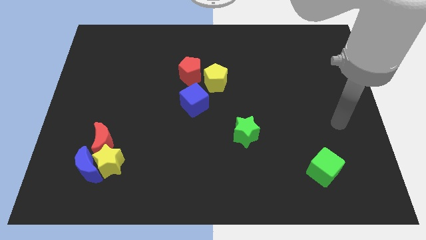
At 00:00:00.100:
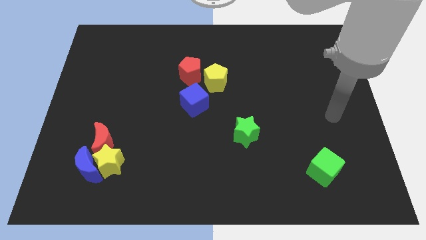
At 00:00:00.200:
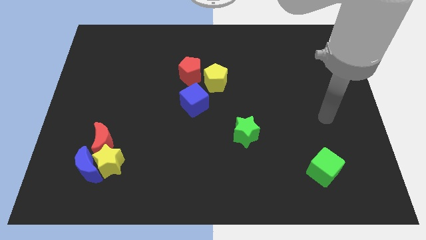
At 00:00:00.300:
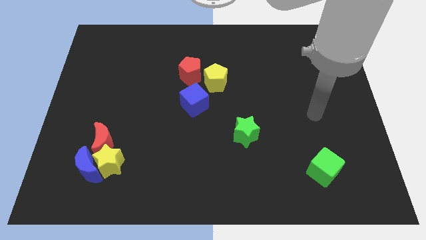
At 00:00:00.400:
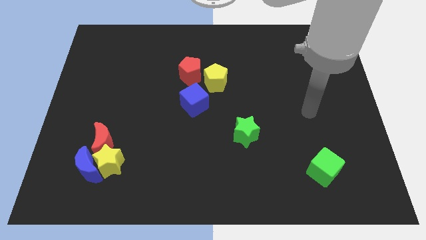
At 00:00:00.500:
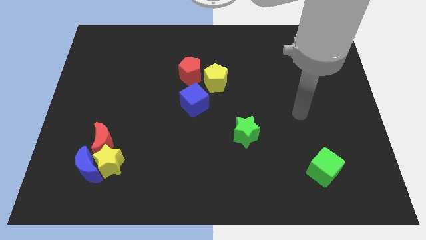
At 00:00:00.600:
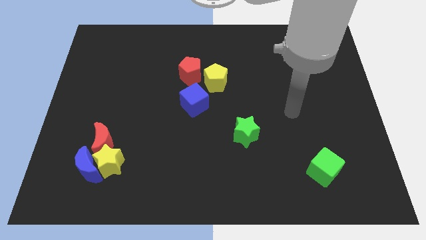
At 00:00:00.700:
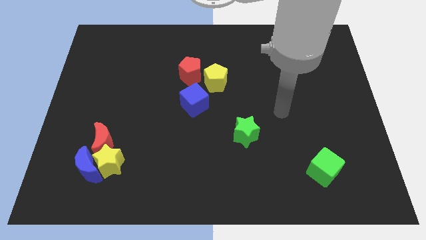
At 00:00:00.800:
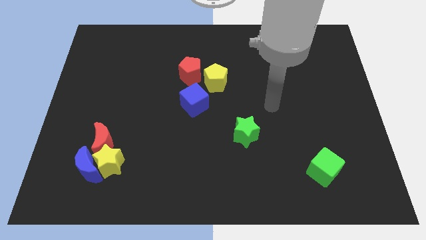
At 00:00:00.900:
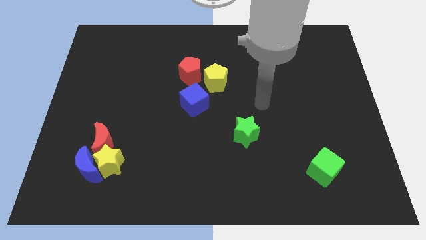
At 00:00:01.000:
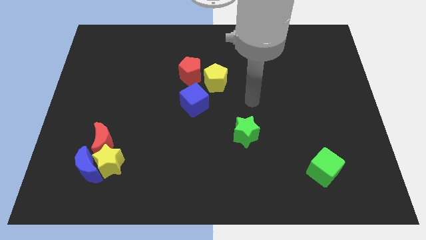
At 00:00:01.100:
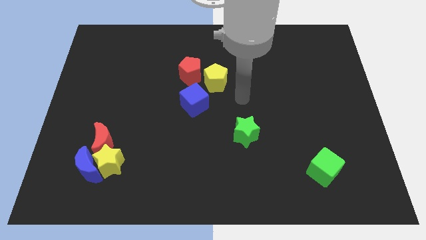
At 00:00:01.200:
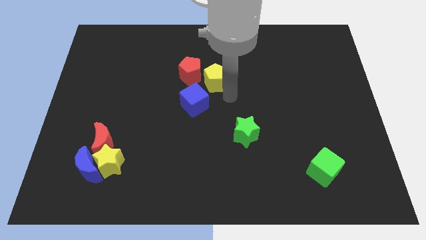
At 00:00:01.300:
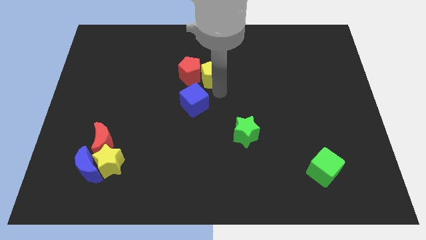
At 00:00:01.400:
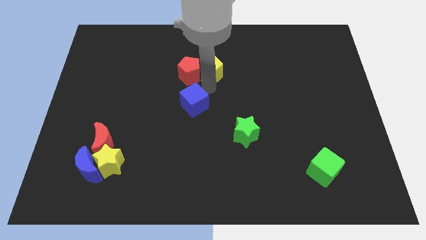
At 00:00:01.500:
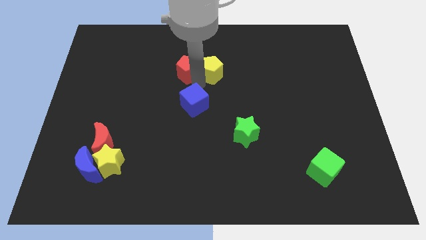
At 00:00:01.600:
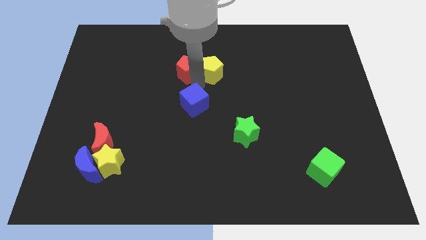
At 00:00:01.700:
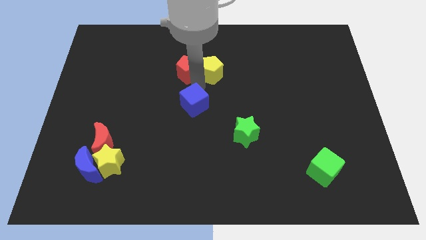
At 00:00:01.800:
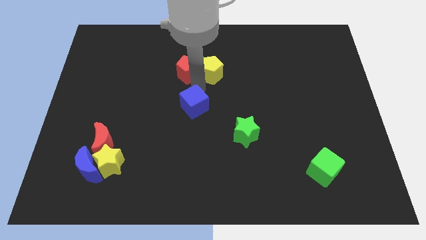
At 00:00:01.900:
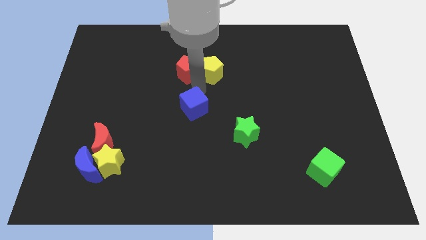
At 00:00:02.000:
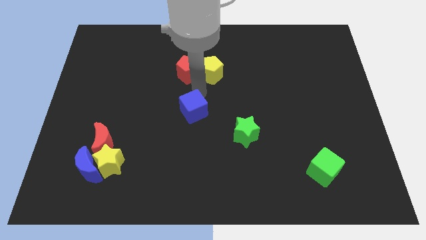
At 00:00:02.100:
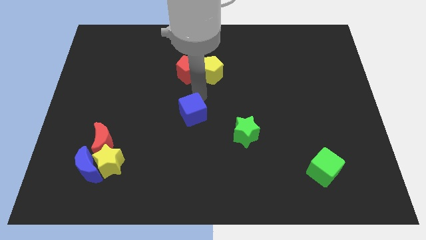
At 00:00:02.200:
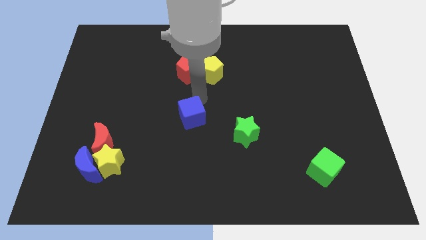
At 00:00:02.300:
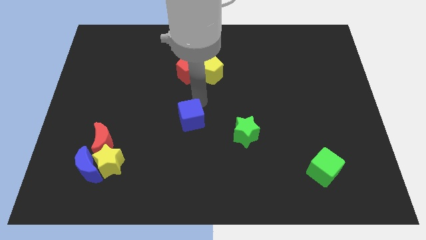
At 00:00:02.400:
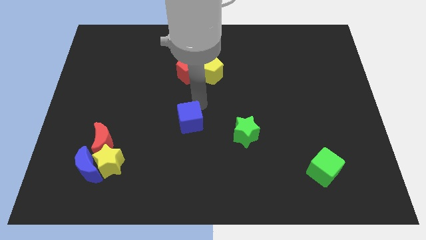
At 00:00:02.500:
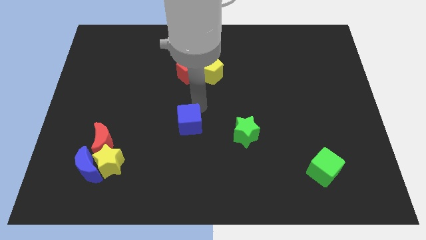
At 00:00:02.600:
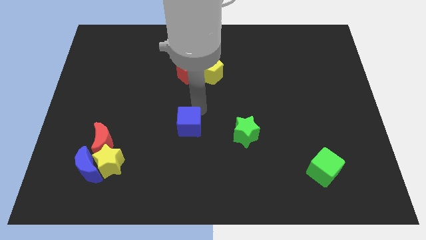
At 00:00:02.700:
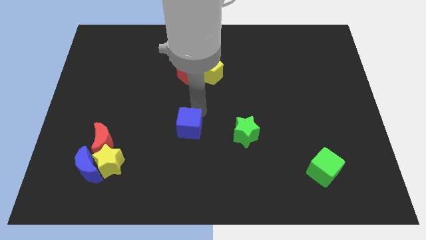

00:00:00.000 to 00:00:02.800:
push the blue cube downwards somewhat

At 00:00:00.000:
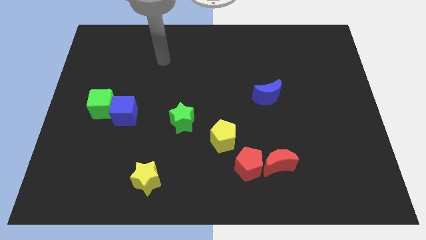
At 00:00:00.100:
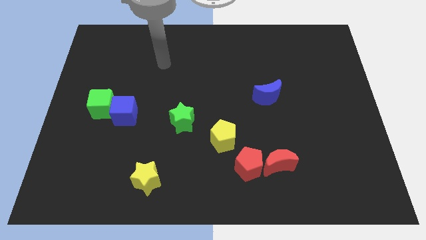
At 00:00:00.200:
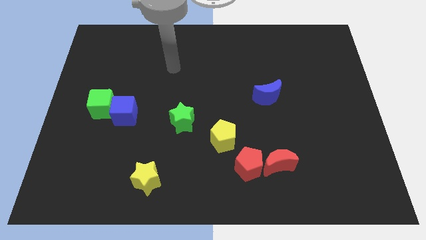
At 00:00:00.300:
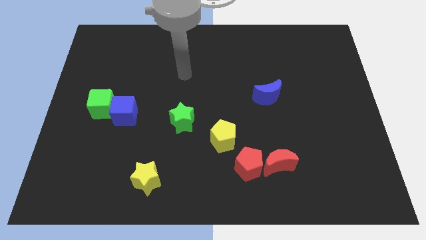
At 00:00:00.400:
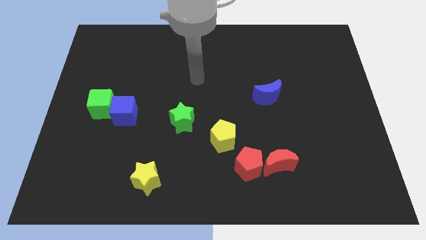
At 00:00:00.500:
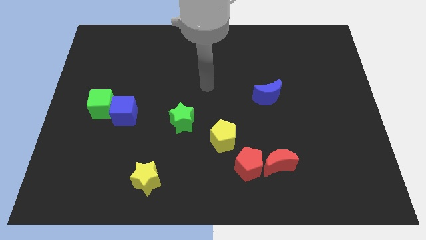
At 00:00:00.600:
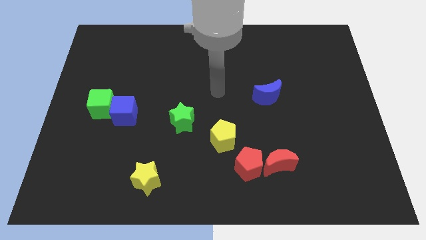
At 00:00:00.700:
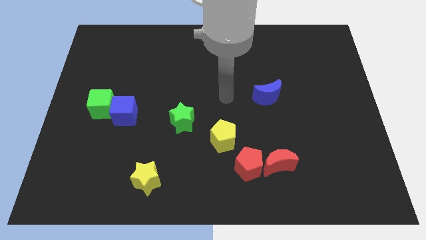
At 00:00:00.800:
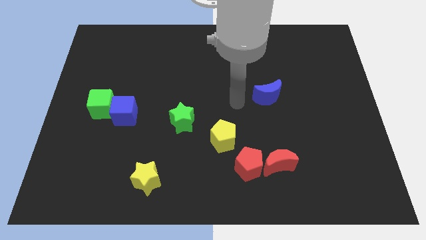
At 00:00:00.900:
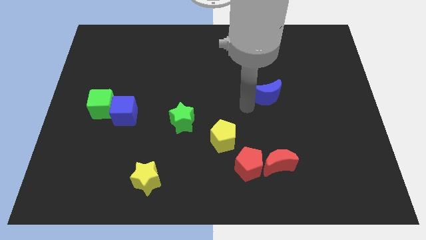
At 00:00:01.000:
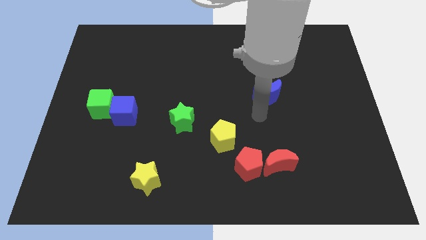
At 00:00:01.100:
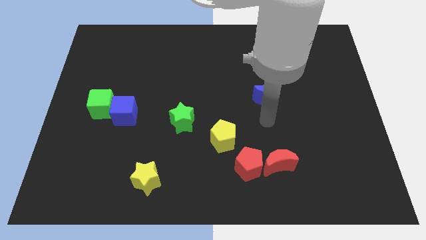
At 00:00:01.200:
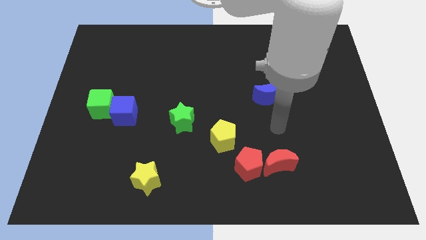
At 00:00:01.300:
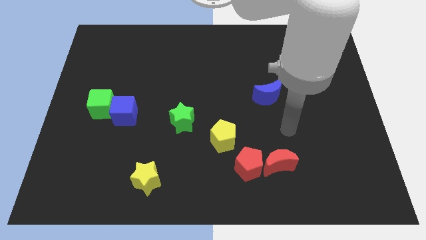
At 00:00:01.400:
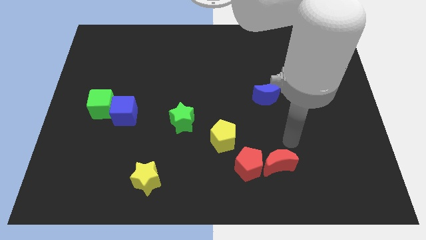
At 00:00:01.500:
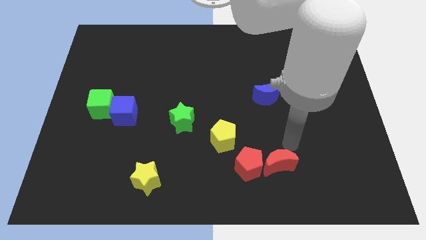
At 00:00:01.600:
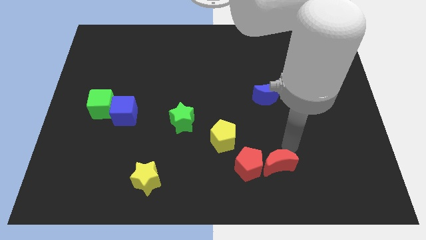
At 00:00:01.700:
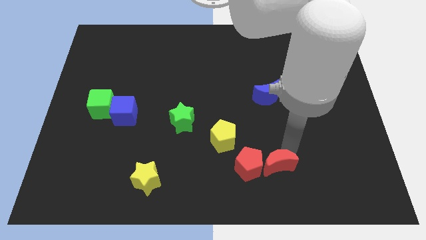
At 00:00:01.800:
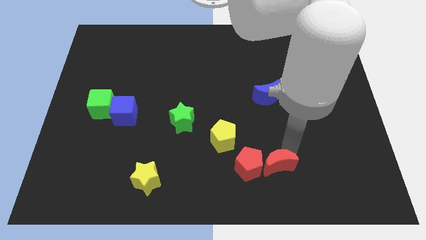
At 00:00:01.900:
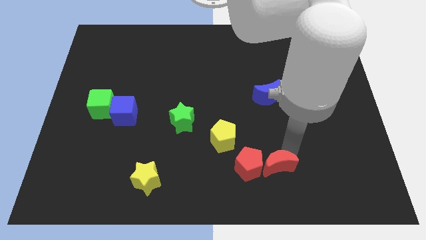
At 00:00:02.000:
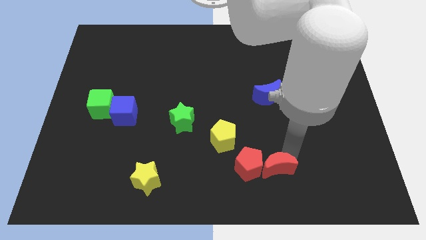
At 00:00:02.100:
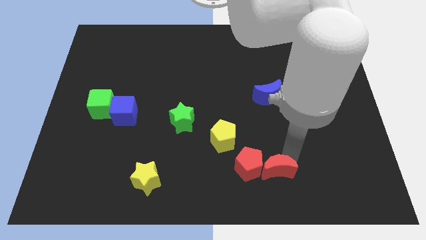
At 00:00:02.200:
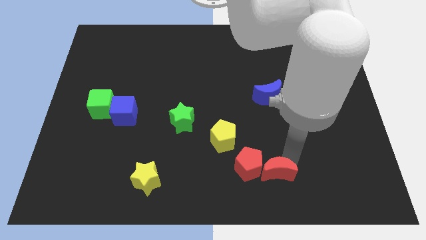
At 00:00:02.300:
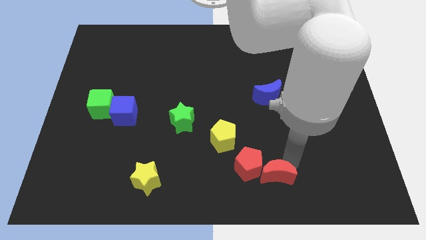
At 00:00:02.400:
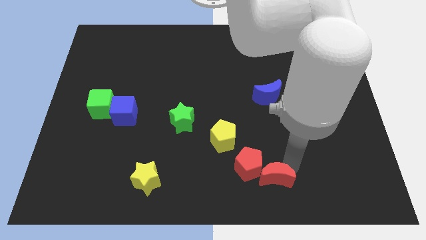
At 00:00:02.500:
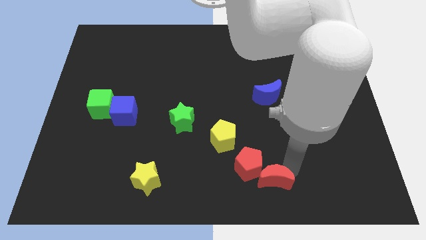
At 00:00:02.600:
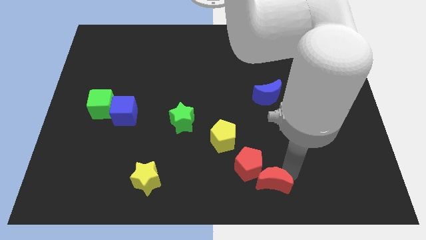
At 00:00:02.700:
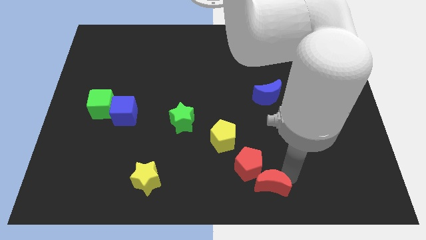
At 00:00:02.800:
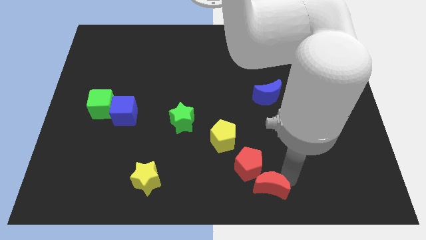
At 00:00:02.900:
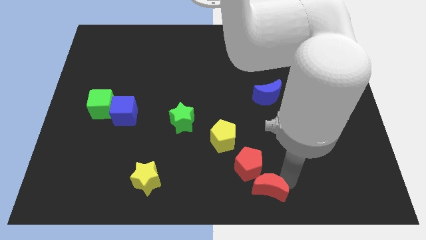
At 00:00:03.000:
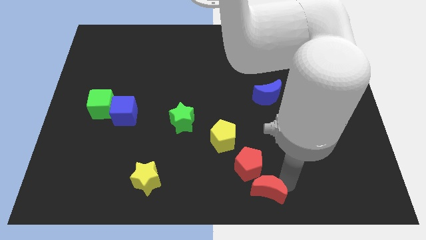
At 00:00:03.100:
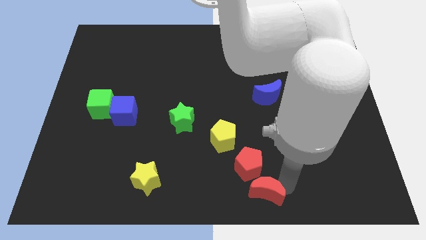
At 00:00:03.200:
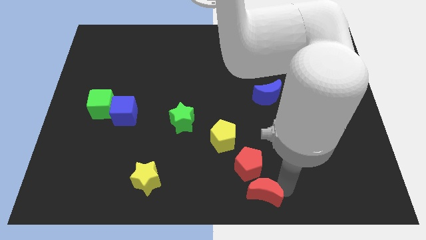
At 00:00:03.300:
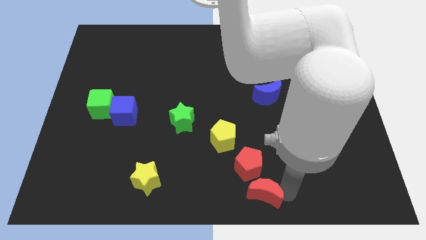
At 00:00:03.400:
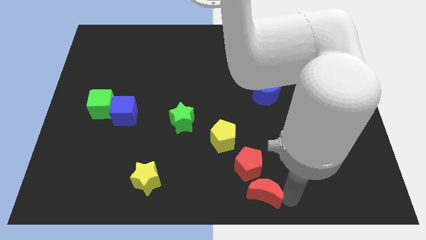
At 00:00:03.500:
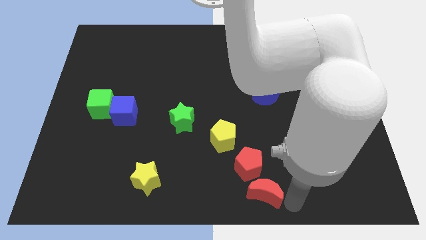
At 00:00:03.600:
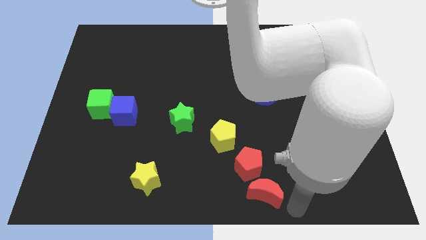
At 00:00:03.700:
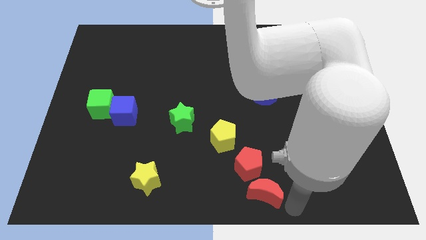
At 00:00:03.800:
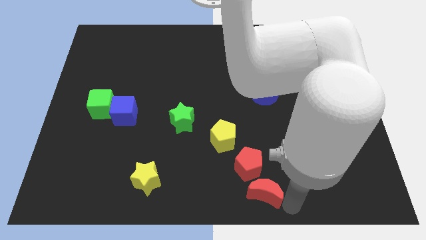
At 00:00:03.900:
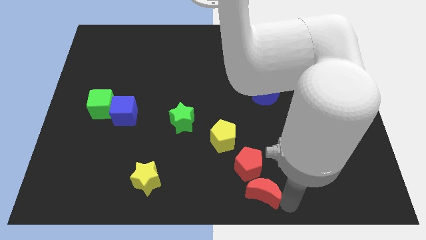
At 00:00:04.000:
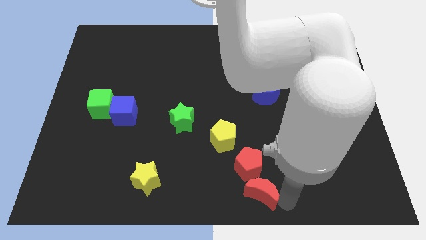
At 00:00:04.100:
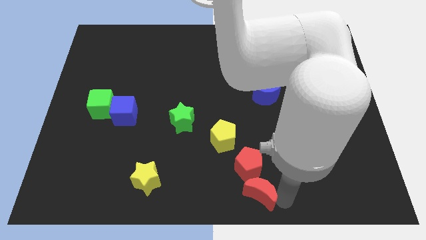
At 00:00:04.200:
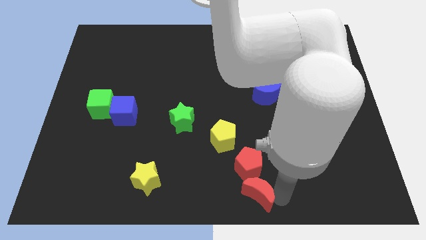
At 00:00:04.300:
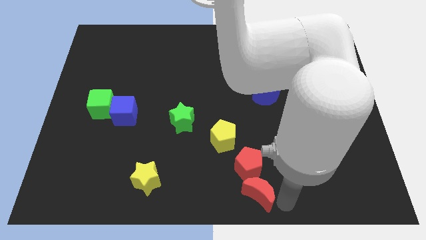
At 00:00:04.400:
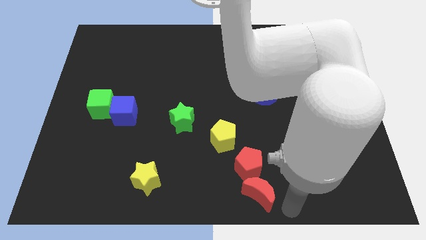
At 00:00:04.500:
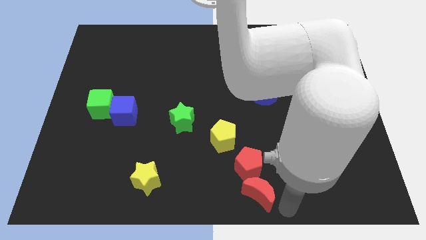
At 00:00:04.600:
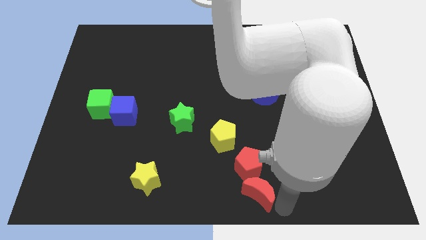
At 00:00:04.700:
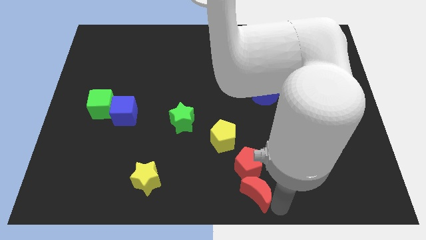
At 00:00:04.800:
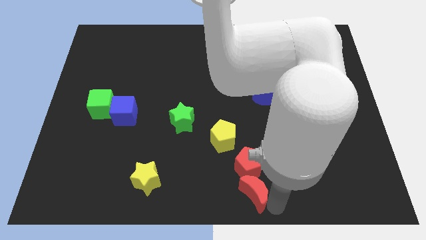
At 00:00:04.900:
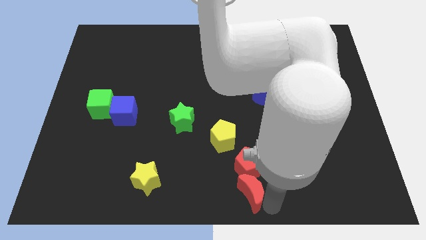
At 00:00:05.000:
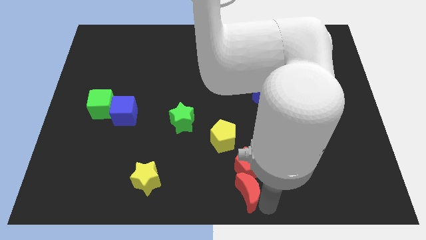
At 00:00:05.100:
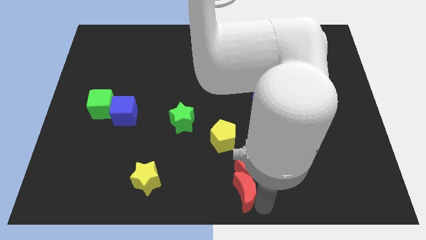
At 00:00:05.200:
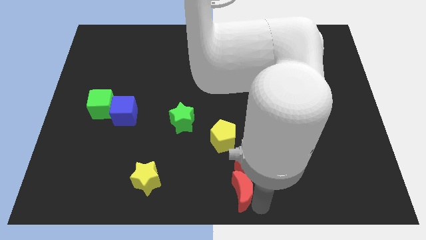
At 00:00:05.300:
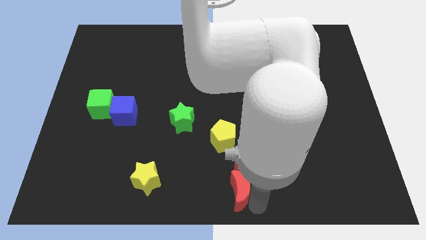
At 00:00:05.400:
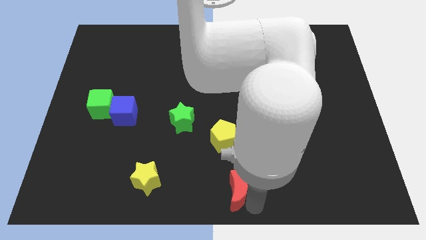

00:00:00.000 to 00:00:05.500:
slightly move the red moon to the left
